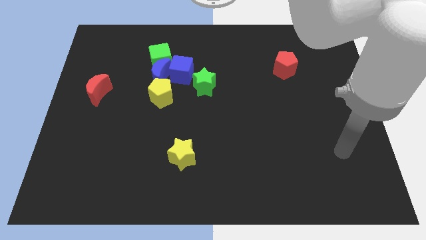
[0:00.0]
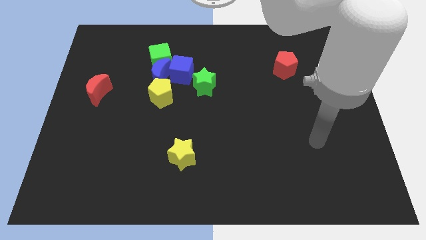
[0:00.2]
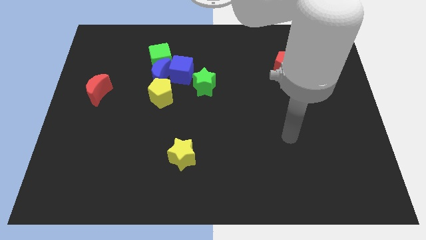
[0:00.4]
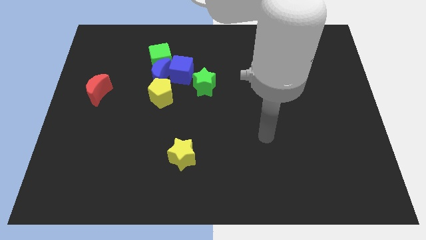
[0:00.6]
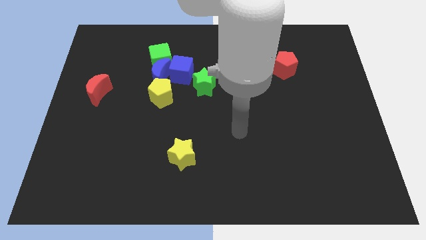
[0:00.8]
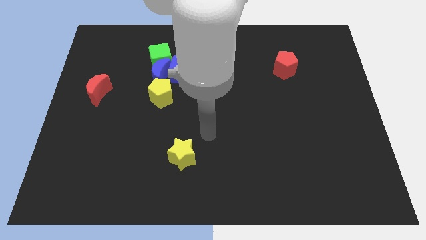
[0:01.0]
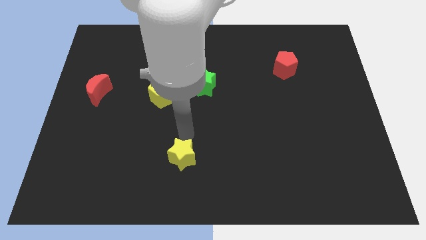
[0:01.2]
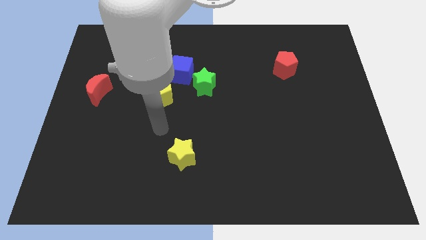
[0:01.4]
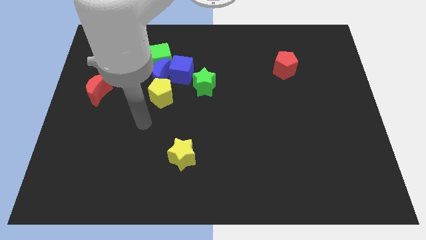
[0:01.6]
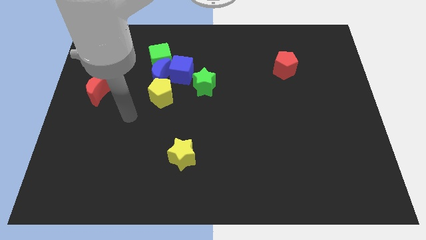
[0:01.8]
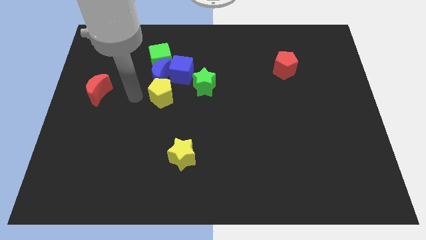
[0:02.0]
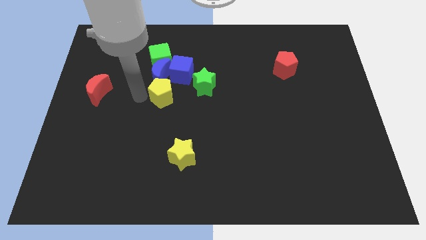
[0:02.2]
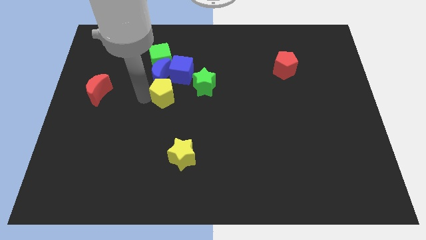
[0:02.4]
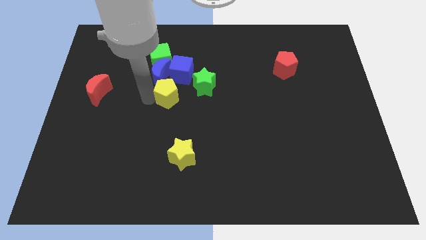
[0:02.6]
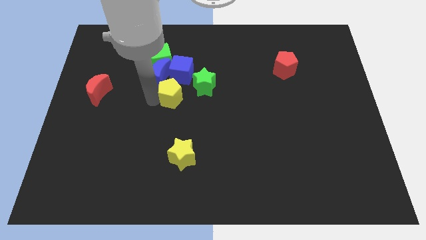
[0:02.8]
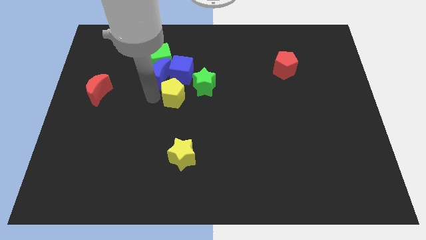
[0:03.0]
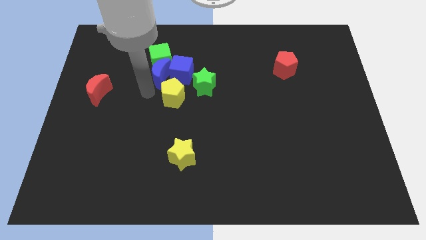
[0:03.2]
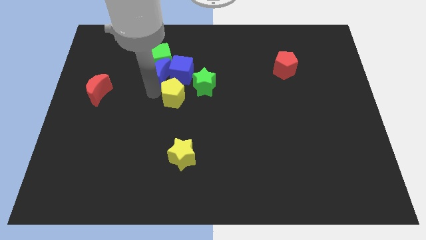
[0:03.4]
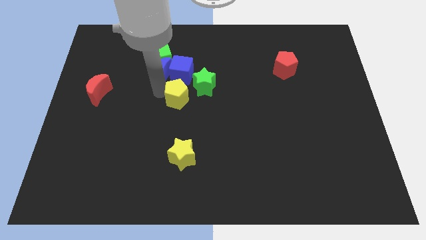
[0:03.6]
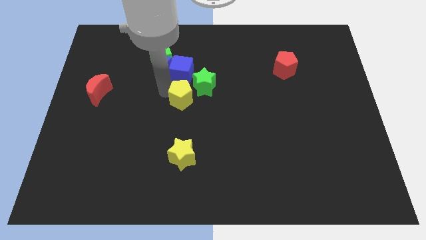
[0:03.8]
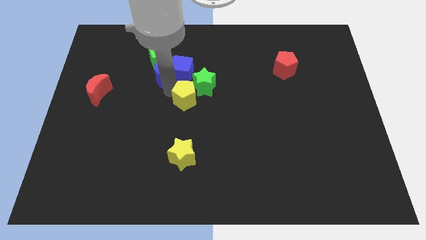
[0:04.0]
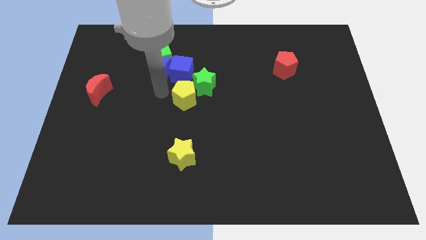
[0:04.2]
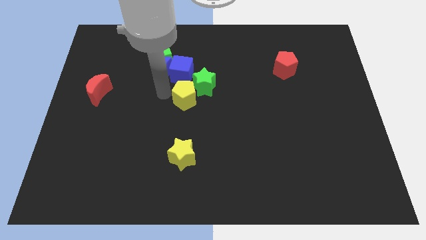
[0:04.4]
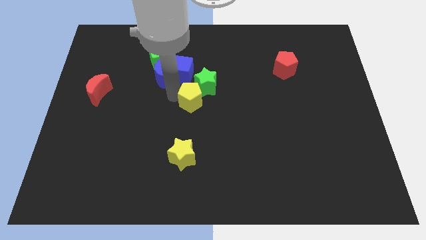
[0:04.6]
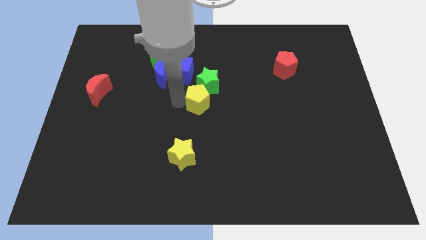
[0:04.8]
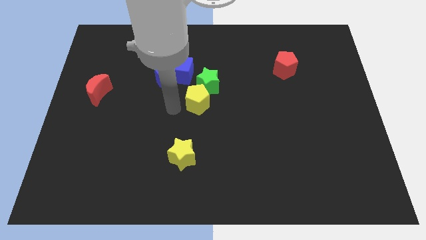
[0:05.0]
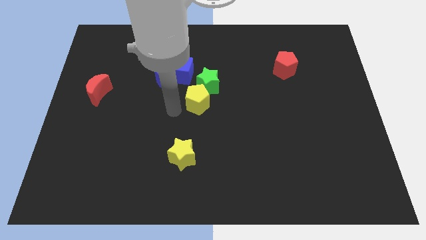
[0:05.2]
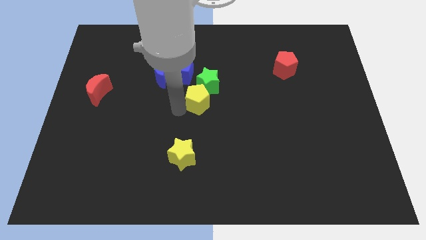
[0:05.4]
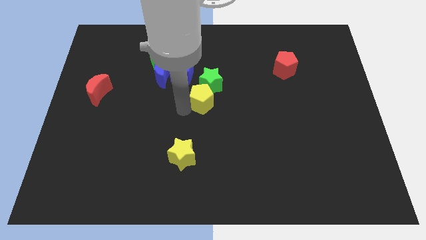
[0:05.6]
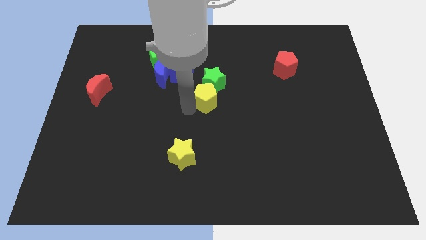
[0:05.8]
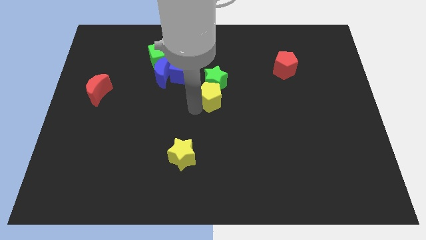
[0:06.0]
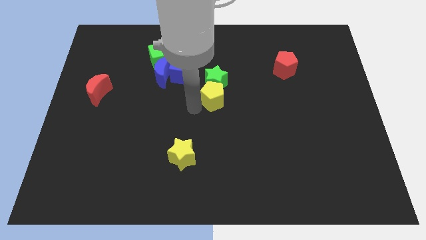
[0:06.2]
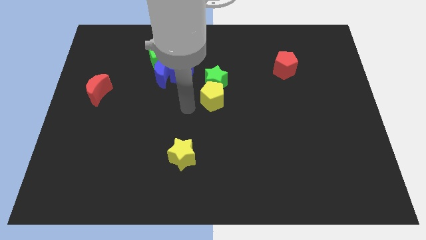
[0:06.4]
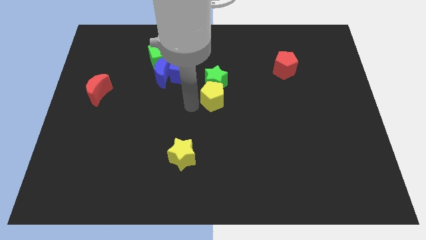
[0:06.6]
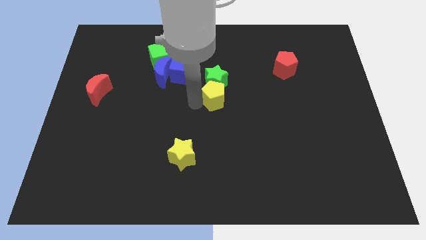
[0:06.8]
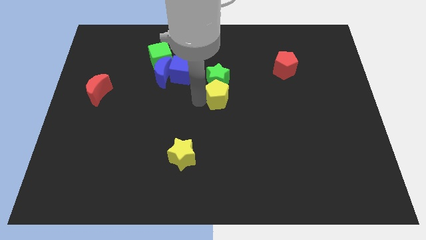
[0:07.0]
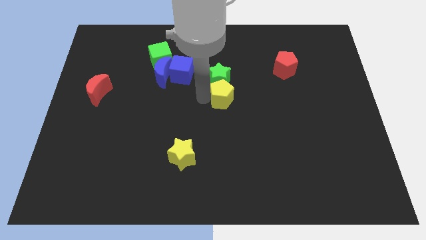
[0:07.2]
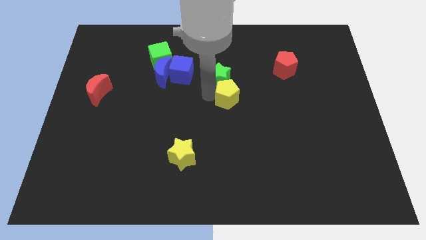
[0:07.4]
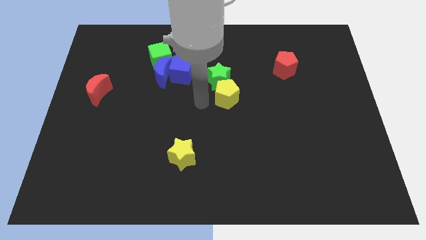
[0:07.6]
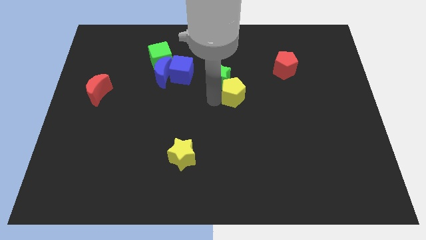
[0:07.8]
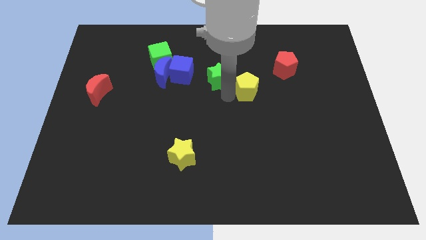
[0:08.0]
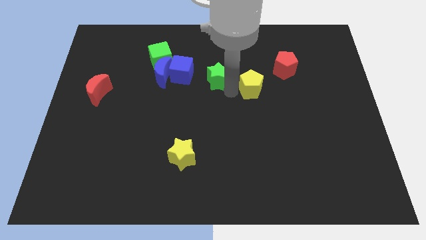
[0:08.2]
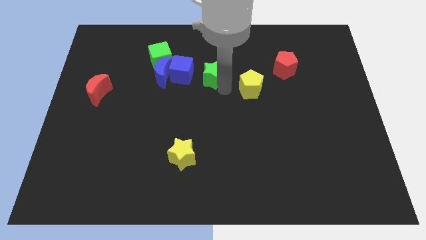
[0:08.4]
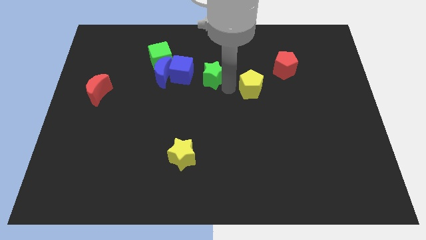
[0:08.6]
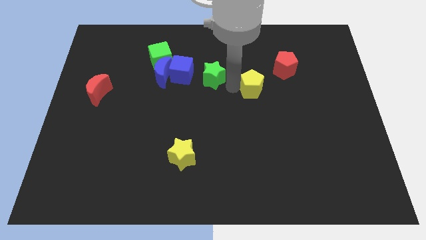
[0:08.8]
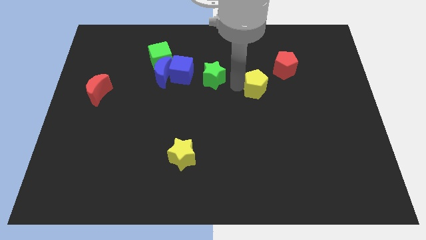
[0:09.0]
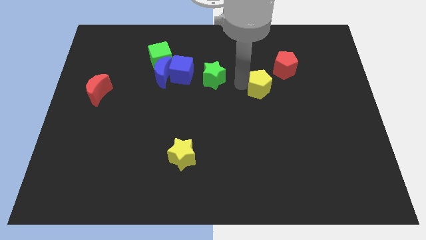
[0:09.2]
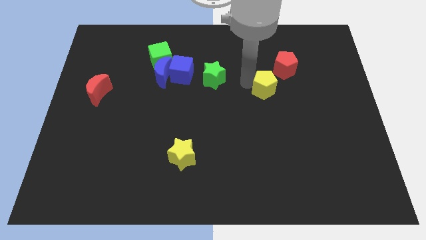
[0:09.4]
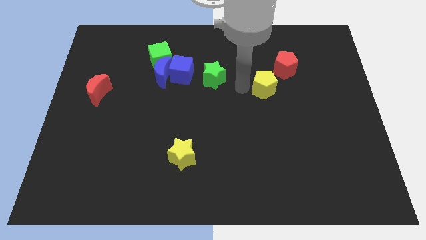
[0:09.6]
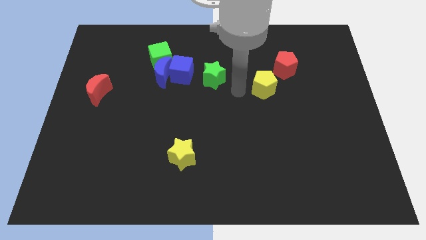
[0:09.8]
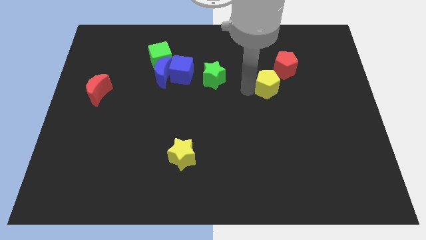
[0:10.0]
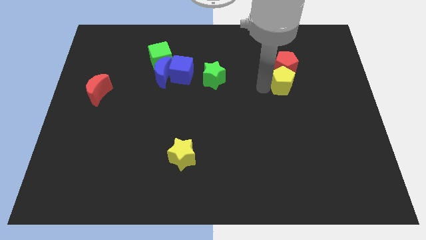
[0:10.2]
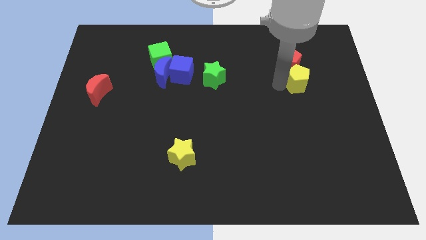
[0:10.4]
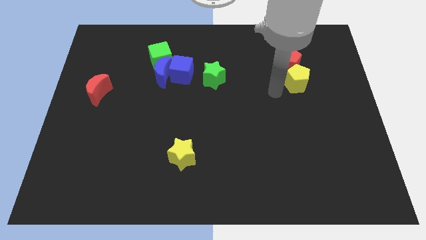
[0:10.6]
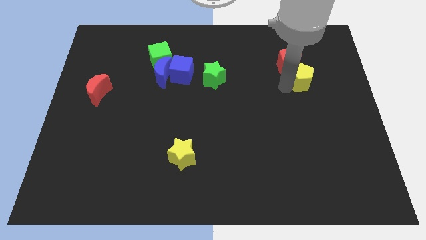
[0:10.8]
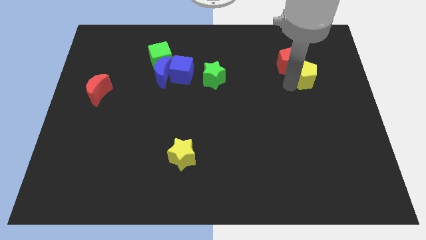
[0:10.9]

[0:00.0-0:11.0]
push the yellow pentagon to the right of the red pentagon

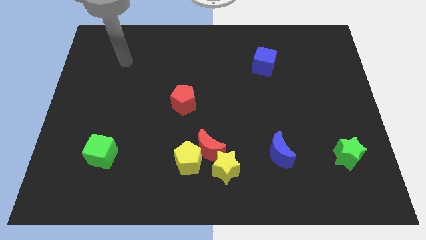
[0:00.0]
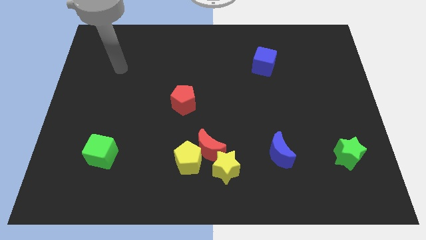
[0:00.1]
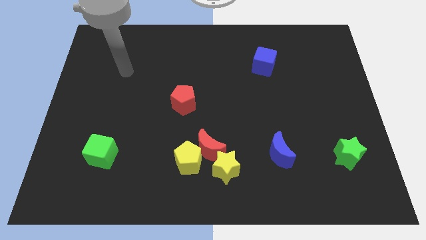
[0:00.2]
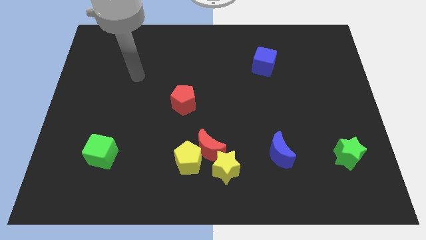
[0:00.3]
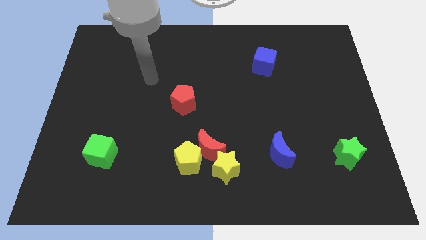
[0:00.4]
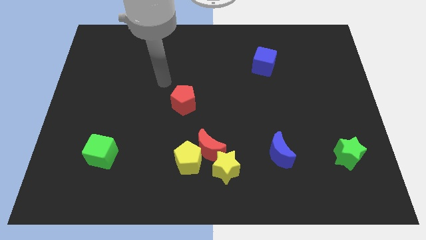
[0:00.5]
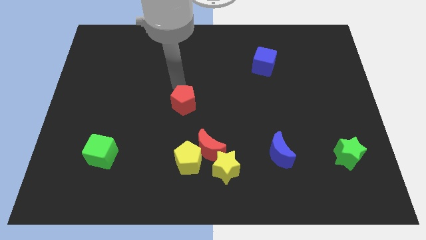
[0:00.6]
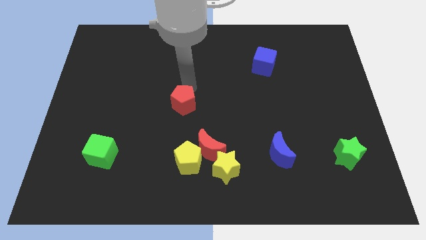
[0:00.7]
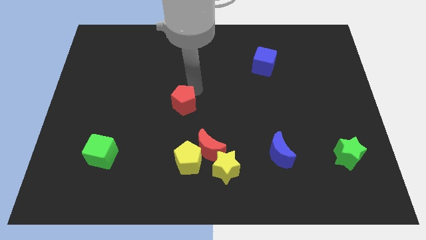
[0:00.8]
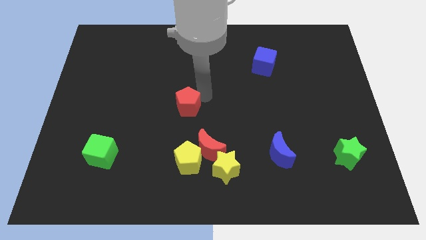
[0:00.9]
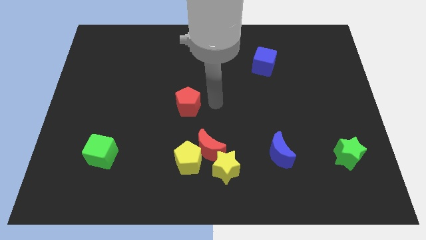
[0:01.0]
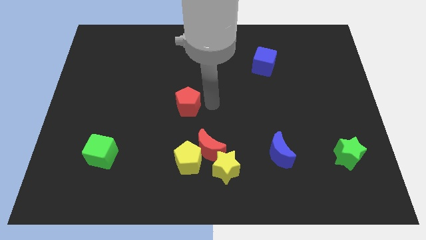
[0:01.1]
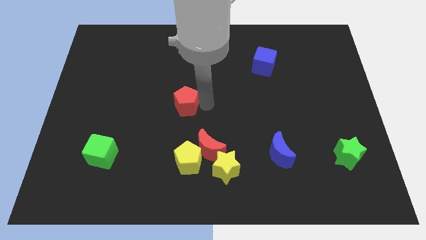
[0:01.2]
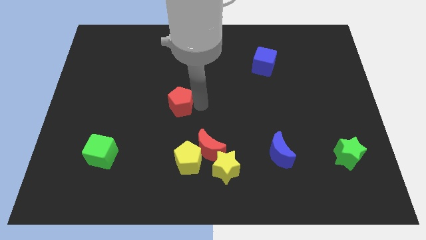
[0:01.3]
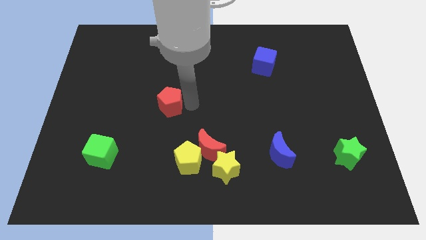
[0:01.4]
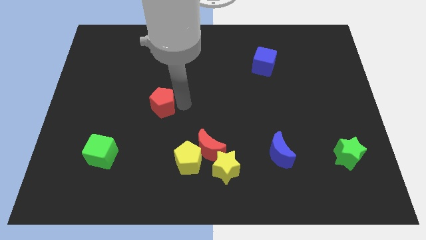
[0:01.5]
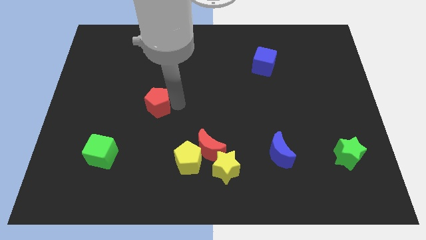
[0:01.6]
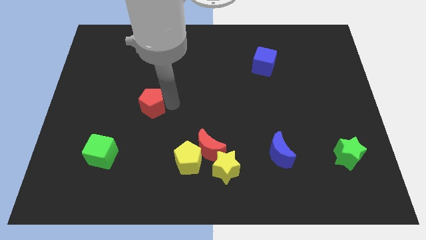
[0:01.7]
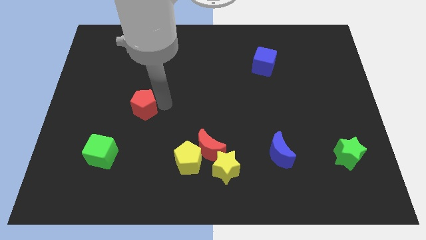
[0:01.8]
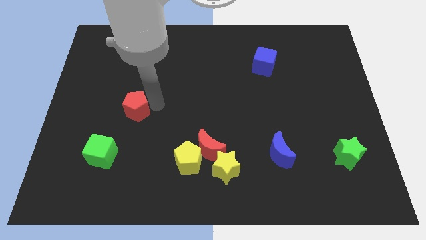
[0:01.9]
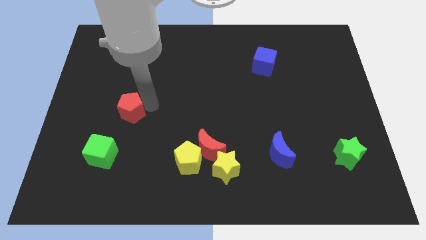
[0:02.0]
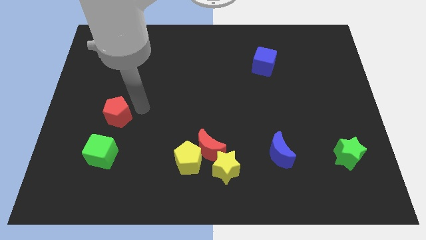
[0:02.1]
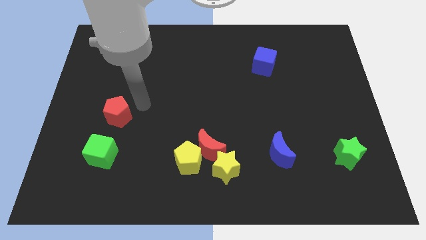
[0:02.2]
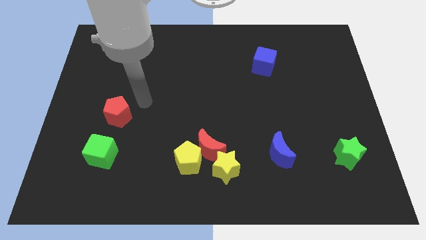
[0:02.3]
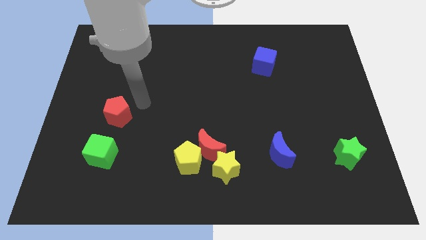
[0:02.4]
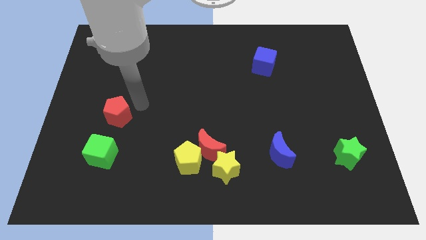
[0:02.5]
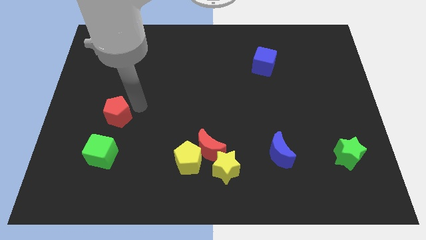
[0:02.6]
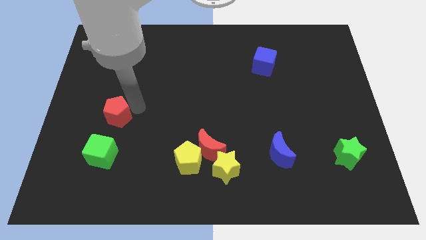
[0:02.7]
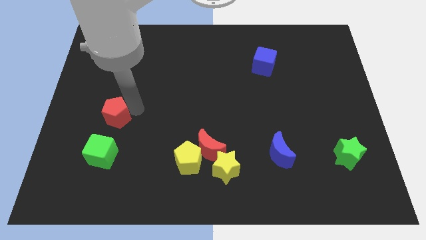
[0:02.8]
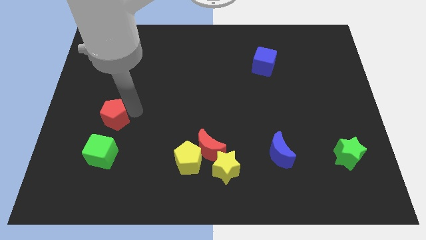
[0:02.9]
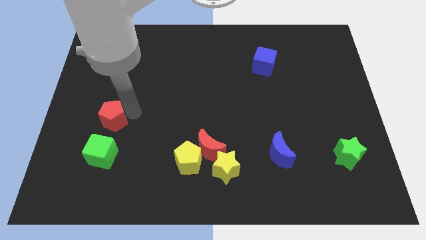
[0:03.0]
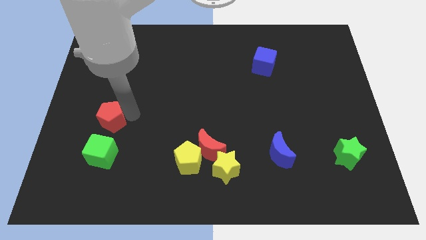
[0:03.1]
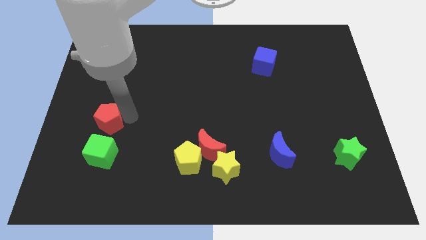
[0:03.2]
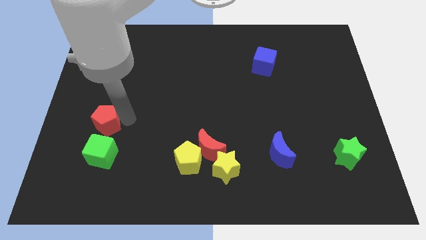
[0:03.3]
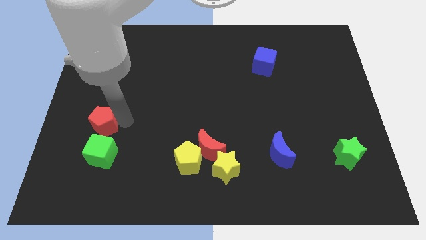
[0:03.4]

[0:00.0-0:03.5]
push the red pentagon to the top left of the green cube
